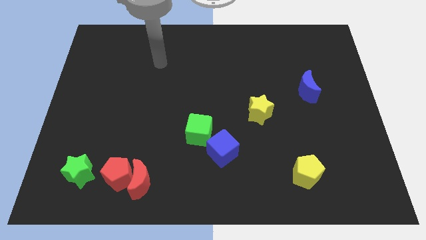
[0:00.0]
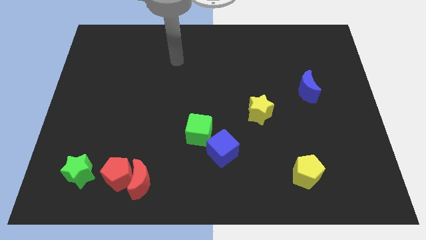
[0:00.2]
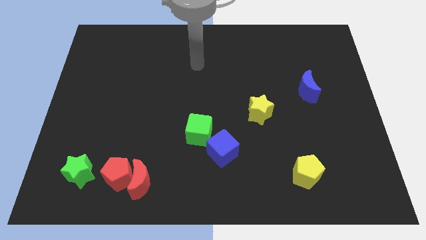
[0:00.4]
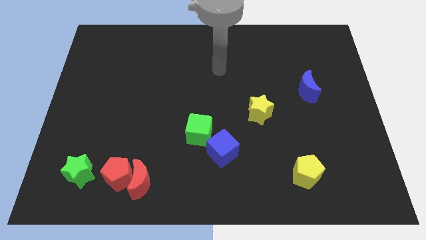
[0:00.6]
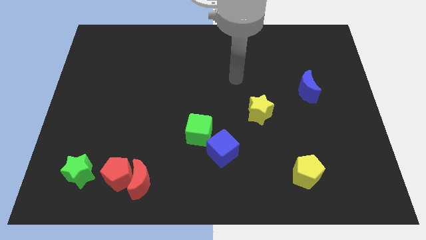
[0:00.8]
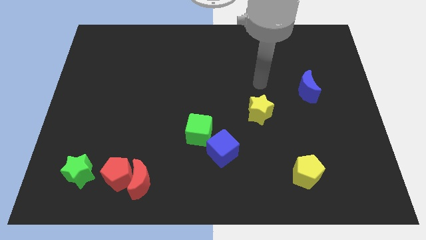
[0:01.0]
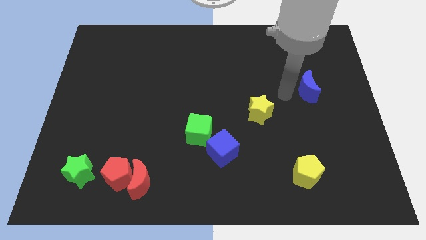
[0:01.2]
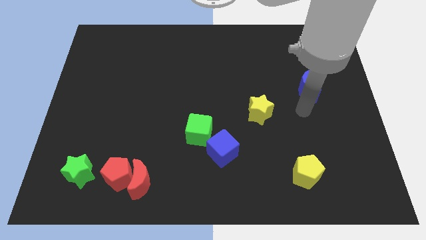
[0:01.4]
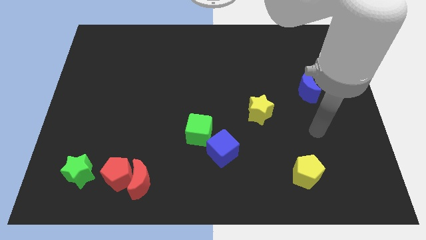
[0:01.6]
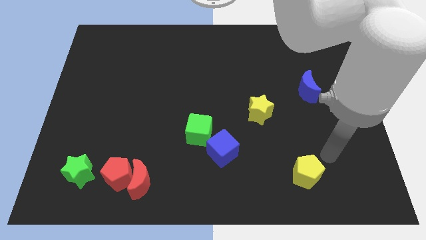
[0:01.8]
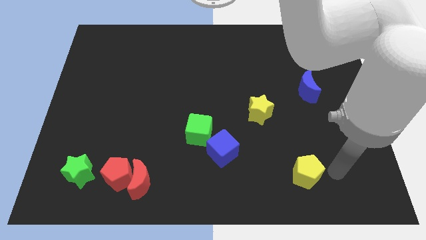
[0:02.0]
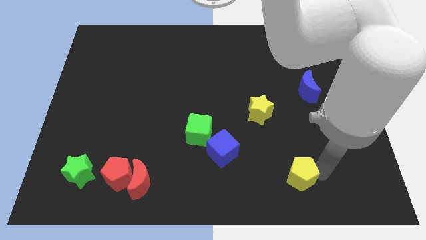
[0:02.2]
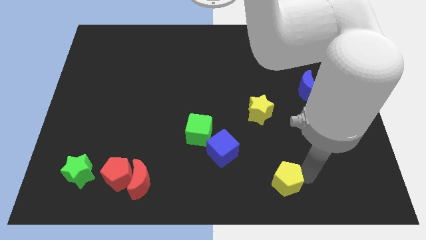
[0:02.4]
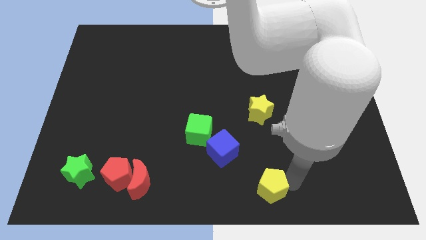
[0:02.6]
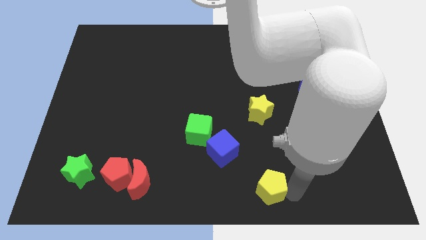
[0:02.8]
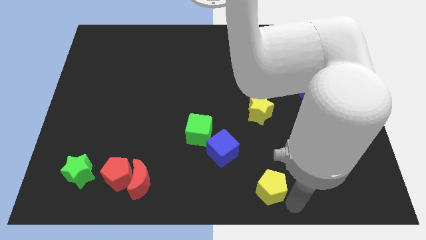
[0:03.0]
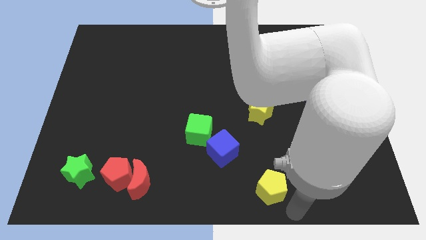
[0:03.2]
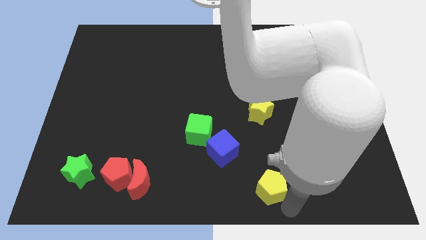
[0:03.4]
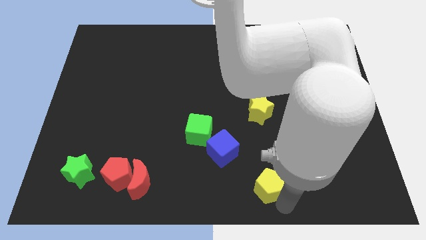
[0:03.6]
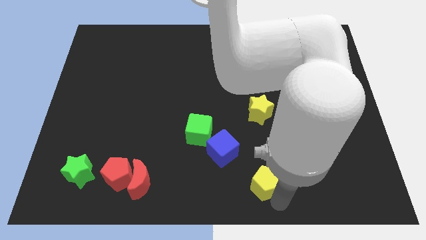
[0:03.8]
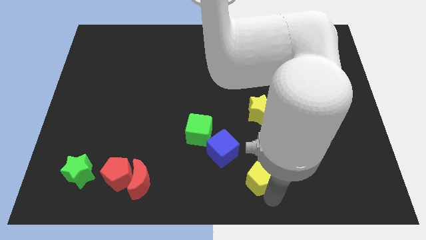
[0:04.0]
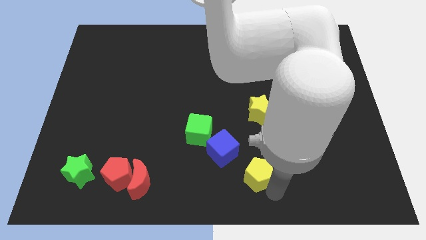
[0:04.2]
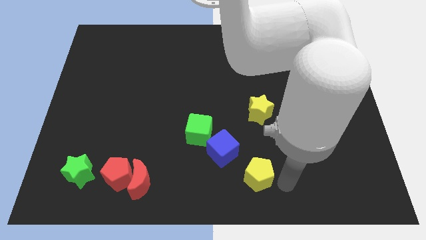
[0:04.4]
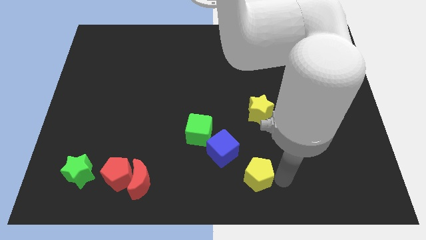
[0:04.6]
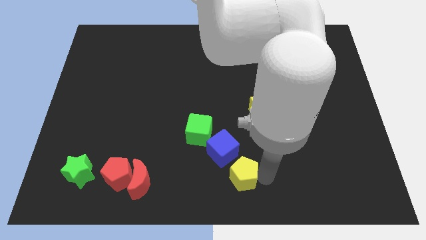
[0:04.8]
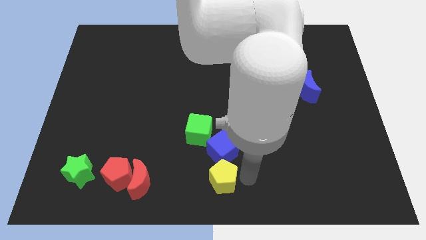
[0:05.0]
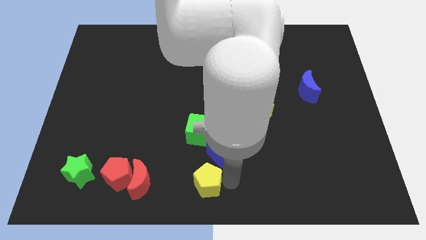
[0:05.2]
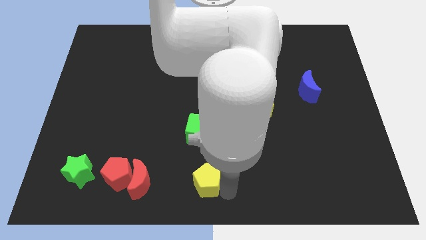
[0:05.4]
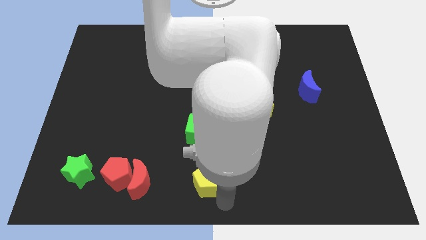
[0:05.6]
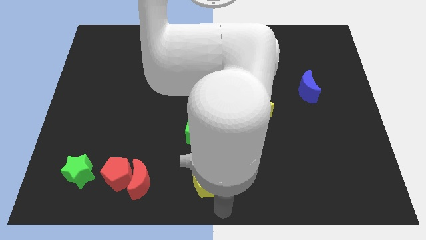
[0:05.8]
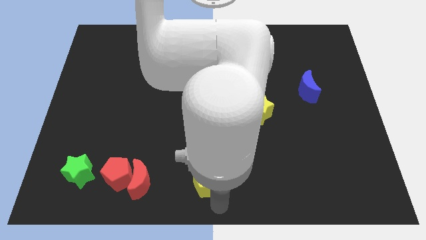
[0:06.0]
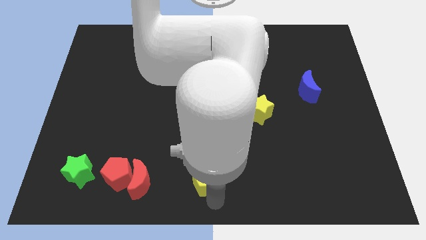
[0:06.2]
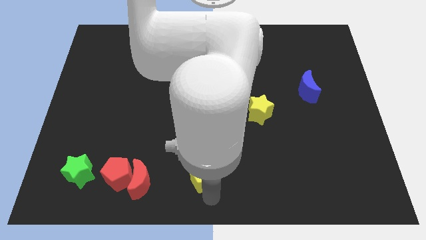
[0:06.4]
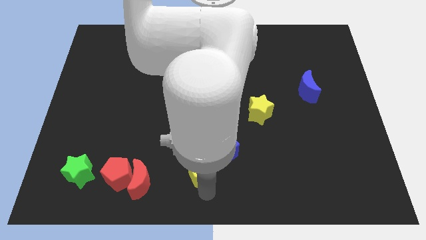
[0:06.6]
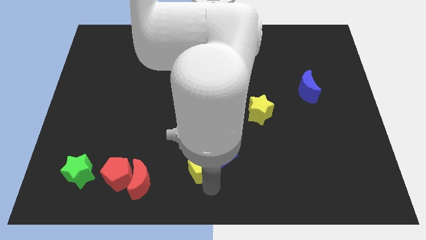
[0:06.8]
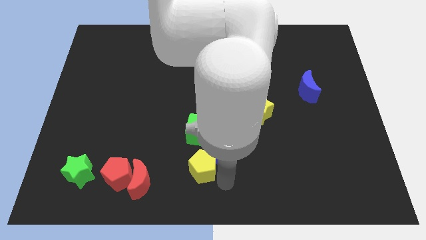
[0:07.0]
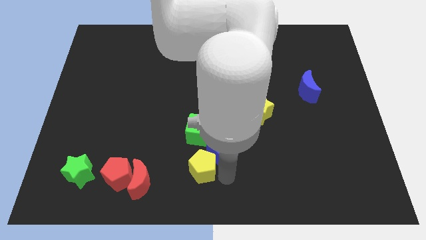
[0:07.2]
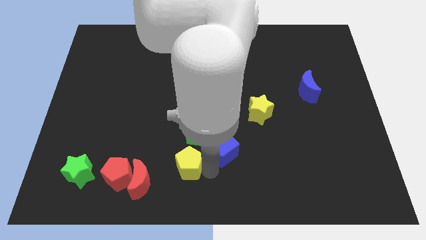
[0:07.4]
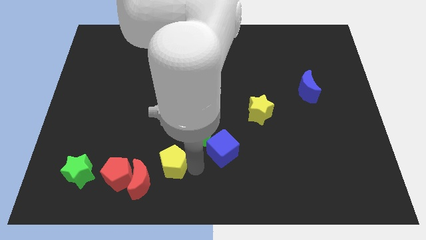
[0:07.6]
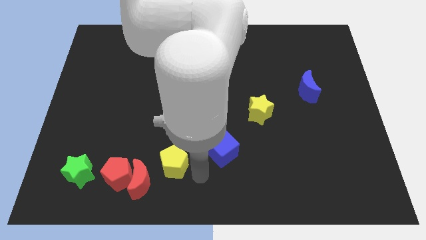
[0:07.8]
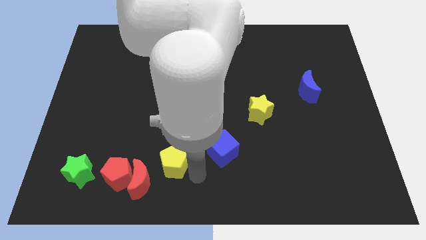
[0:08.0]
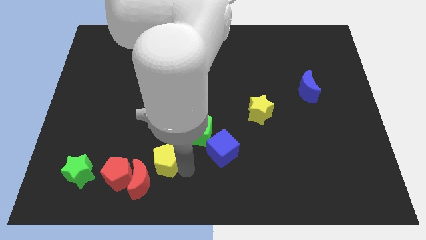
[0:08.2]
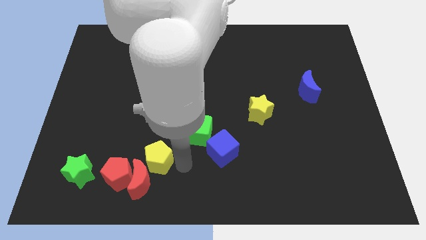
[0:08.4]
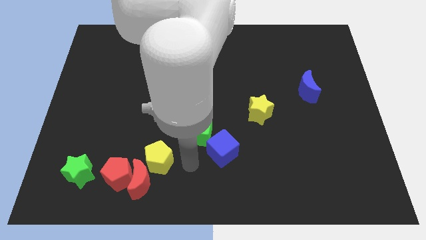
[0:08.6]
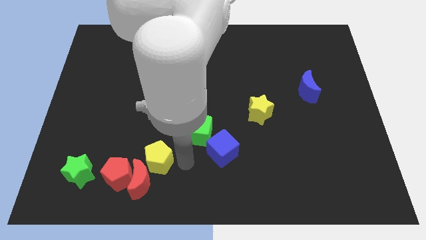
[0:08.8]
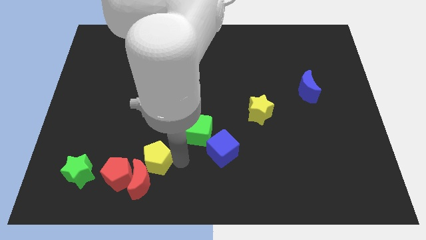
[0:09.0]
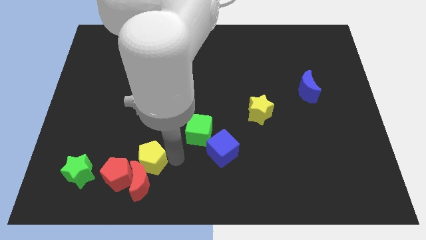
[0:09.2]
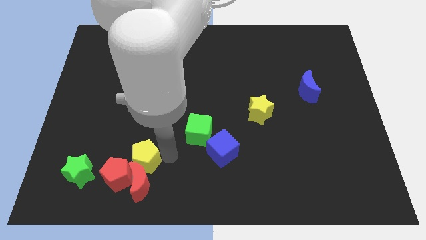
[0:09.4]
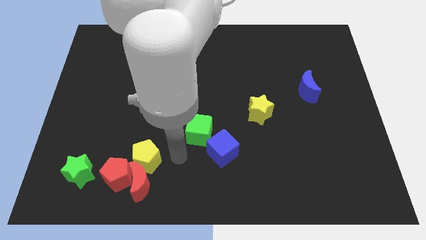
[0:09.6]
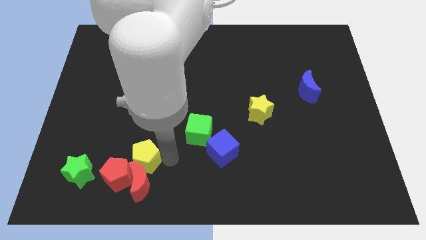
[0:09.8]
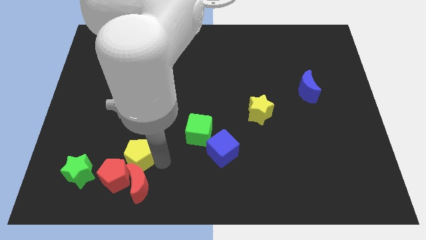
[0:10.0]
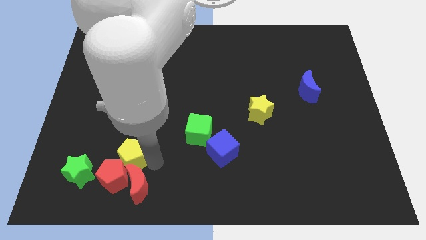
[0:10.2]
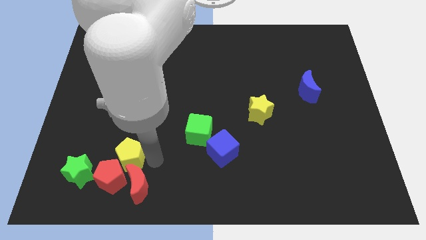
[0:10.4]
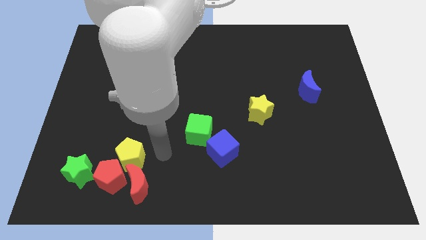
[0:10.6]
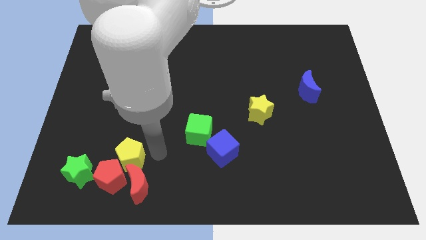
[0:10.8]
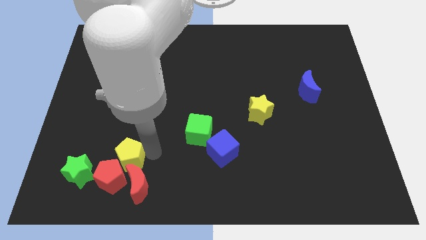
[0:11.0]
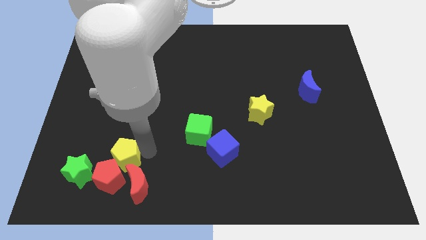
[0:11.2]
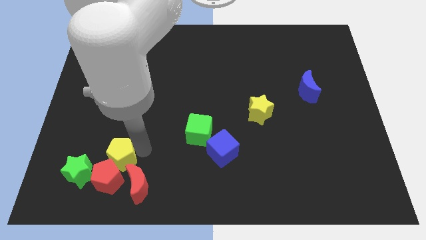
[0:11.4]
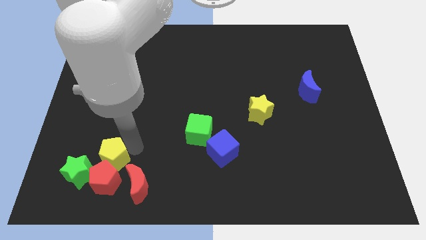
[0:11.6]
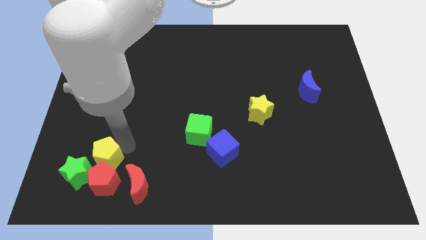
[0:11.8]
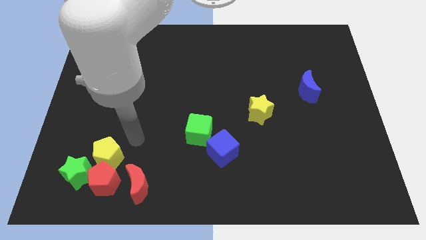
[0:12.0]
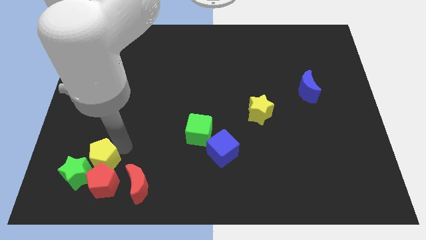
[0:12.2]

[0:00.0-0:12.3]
push the yellow pentagon towards the green star

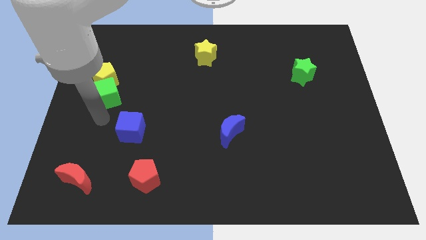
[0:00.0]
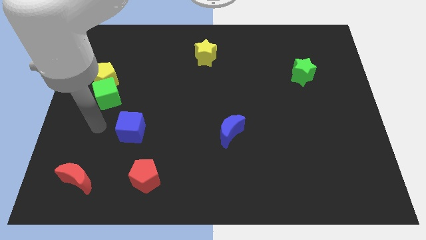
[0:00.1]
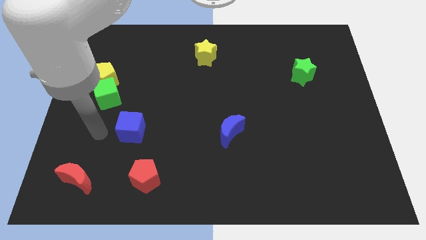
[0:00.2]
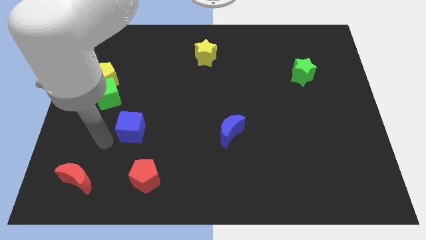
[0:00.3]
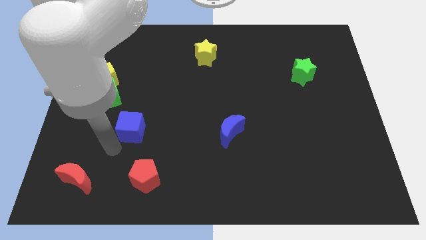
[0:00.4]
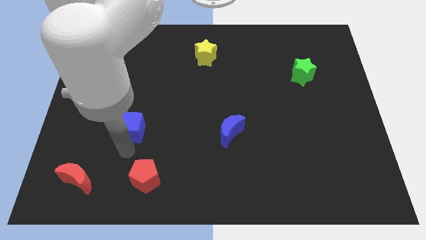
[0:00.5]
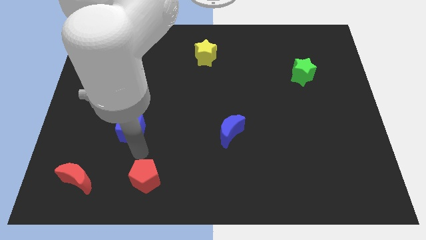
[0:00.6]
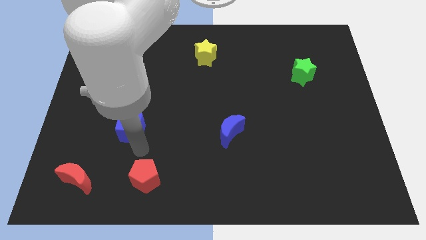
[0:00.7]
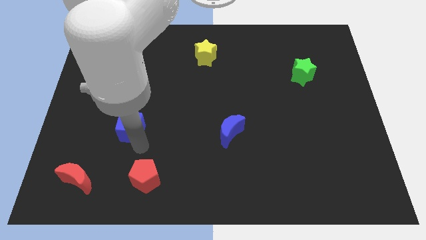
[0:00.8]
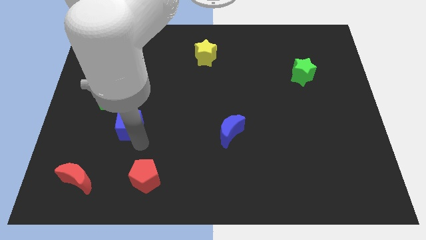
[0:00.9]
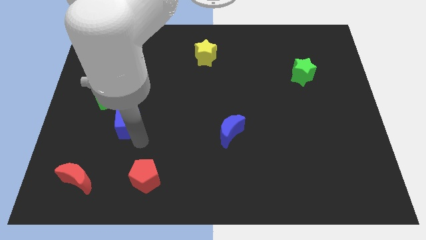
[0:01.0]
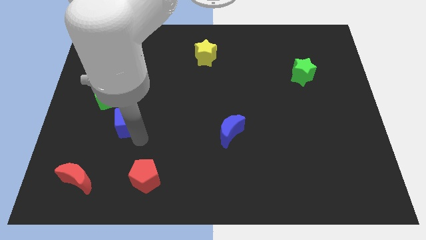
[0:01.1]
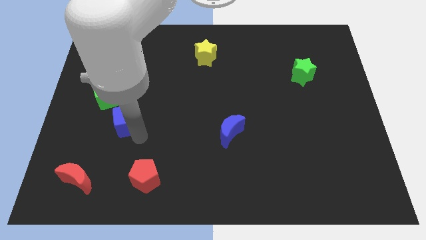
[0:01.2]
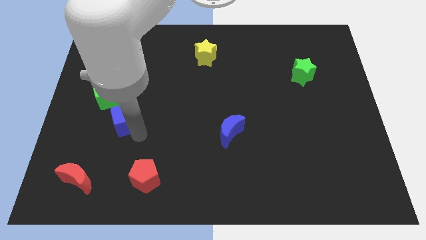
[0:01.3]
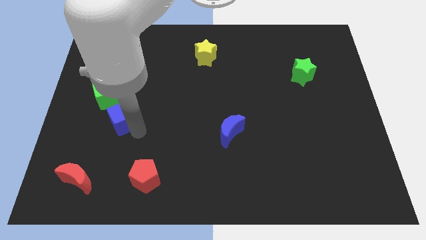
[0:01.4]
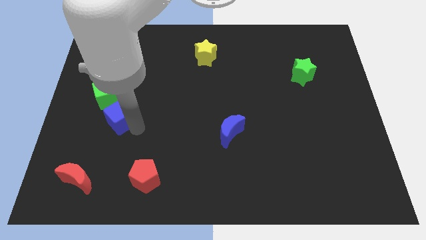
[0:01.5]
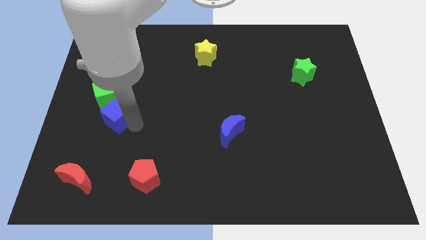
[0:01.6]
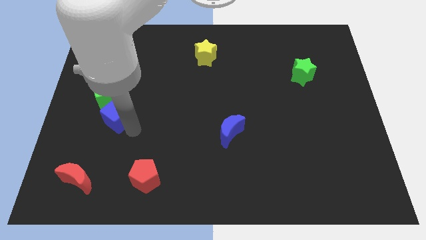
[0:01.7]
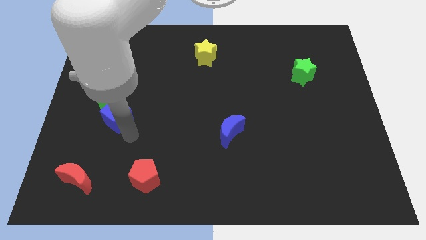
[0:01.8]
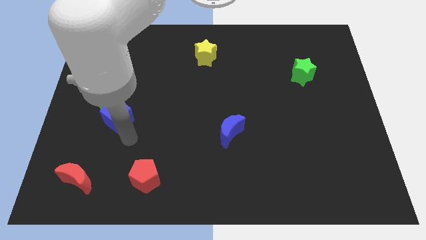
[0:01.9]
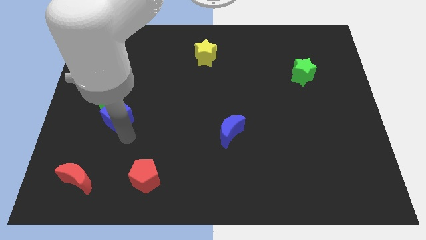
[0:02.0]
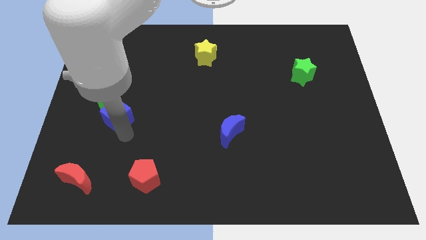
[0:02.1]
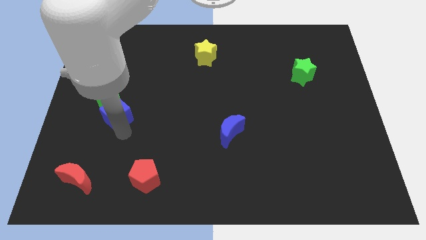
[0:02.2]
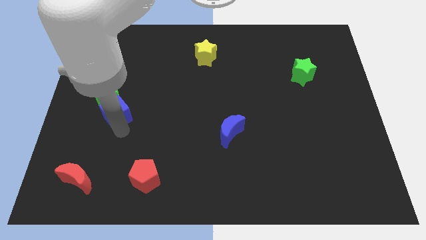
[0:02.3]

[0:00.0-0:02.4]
move the blue cube next to the green cube
